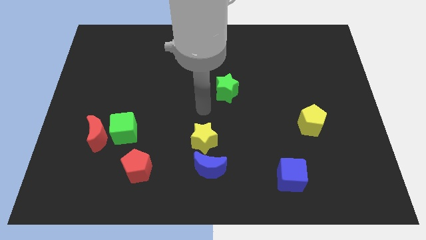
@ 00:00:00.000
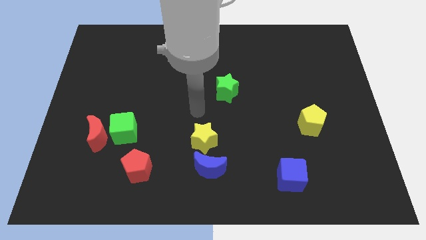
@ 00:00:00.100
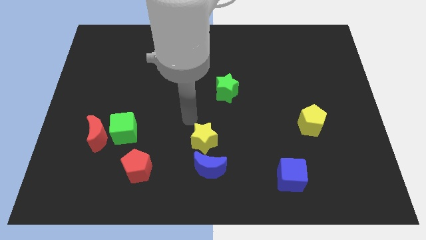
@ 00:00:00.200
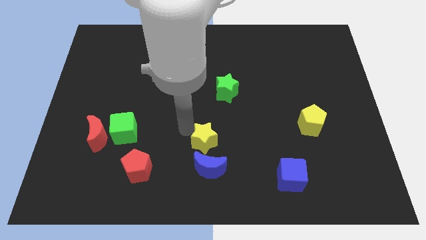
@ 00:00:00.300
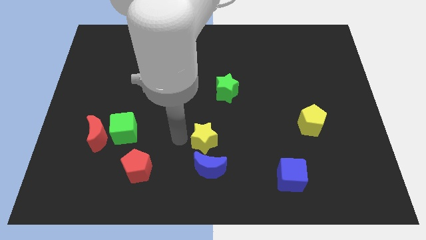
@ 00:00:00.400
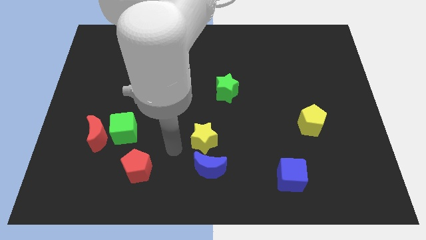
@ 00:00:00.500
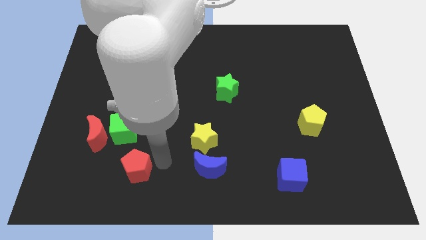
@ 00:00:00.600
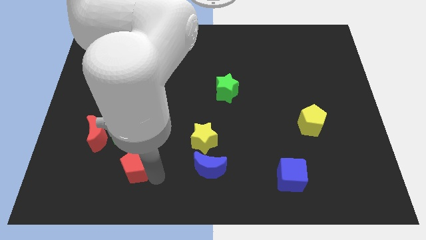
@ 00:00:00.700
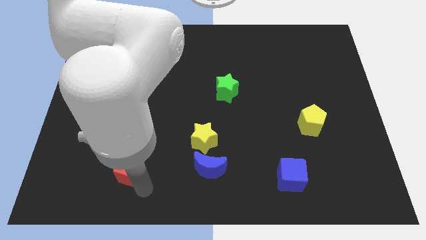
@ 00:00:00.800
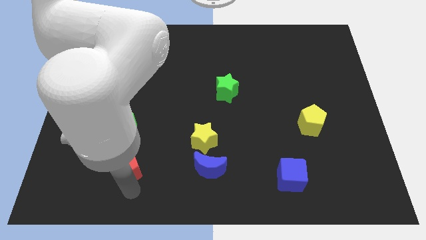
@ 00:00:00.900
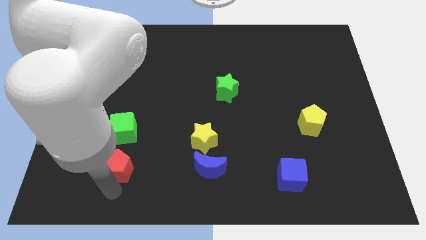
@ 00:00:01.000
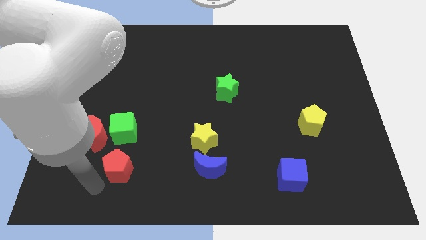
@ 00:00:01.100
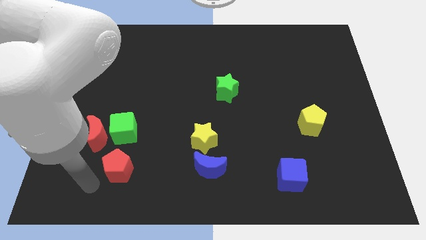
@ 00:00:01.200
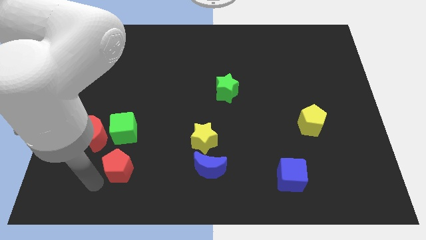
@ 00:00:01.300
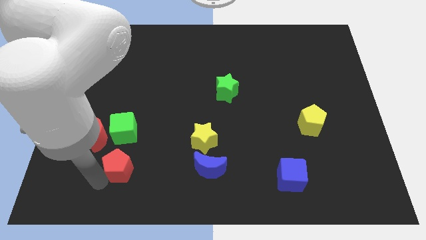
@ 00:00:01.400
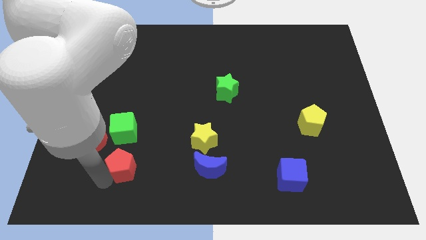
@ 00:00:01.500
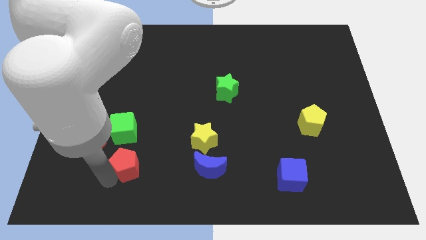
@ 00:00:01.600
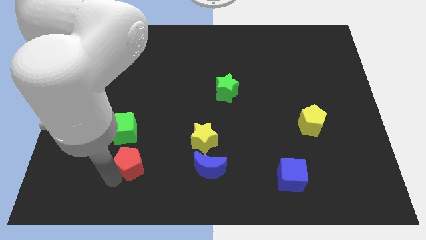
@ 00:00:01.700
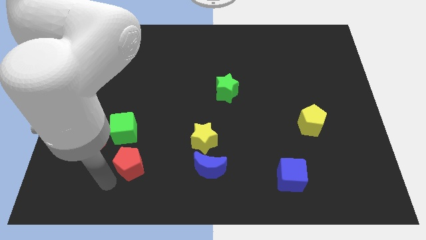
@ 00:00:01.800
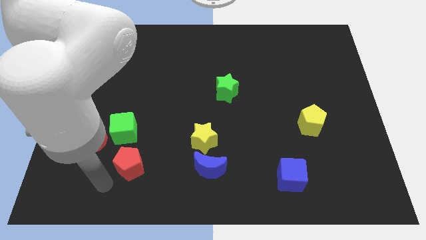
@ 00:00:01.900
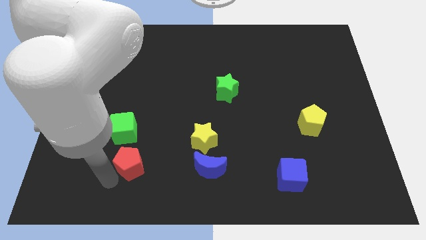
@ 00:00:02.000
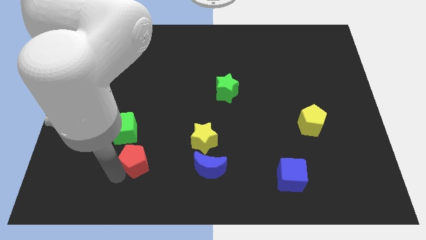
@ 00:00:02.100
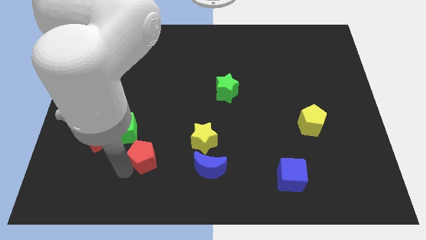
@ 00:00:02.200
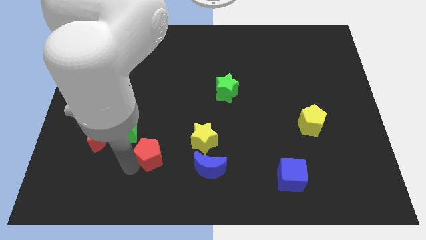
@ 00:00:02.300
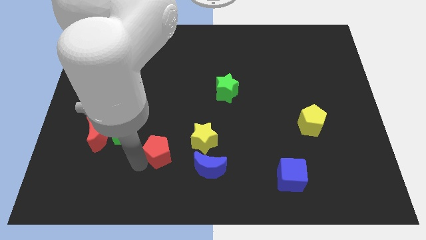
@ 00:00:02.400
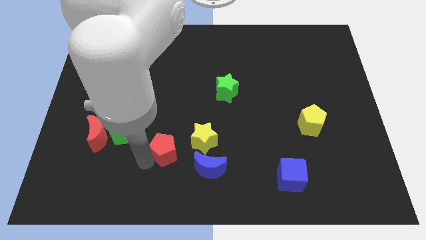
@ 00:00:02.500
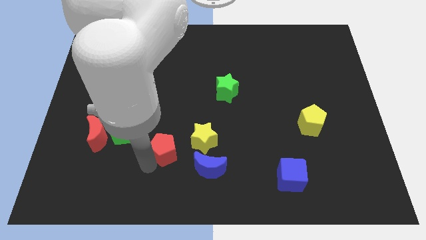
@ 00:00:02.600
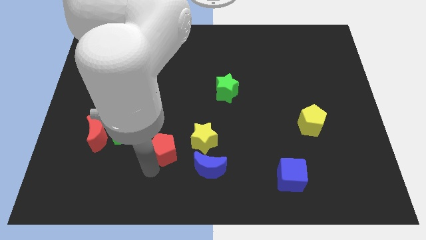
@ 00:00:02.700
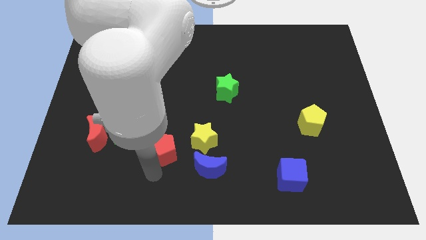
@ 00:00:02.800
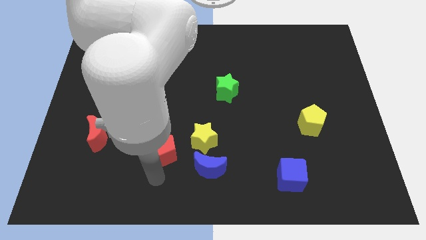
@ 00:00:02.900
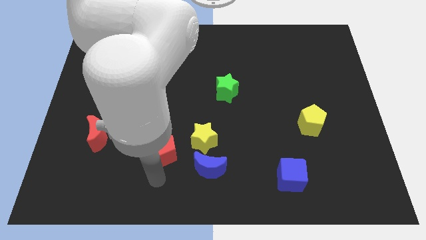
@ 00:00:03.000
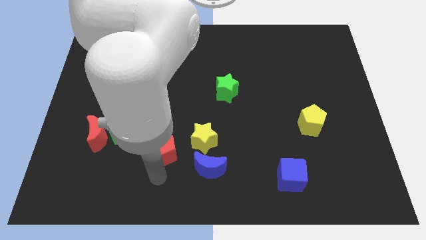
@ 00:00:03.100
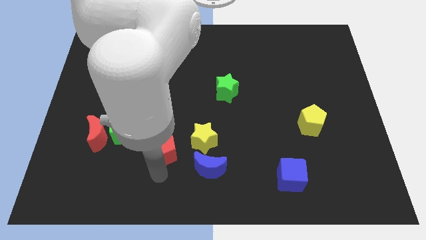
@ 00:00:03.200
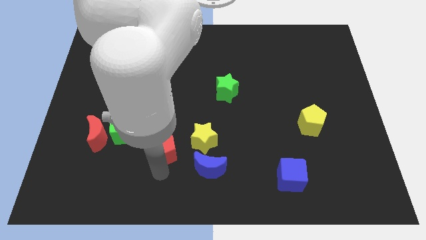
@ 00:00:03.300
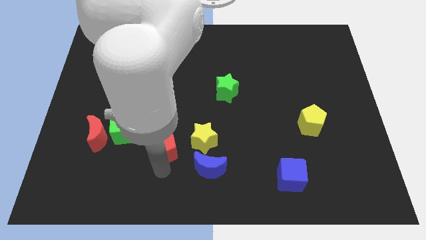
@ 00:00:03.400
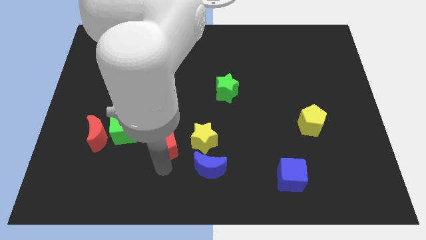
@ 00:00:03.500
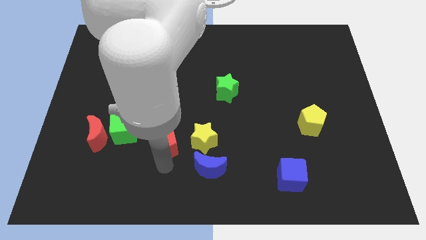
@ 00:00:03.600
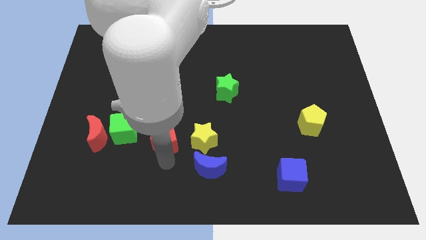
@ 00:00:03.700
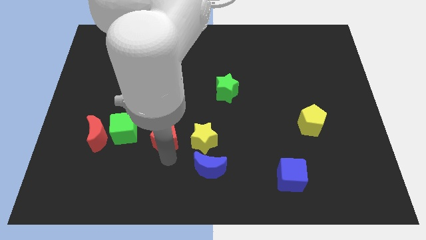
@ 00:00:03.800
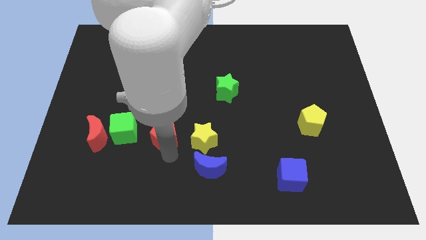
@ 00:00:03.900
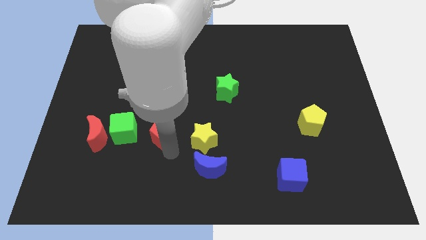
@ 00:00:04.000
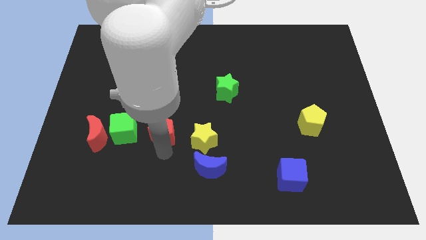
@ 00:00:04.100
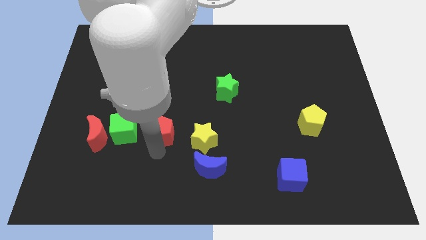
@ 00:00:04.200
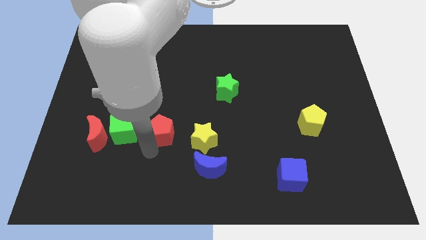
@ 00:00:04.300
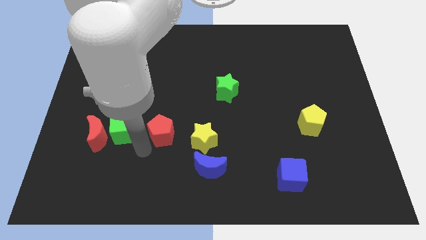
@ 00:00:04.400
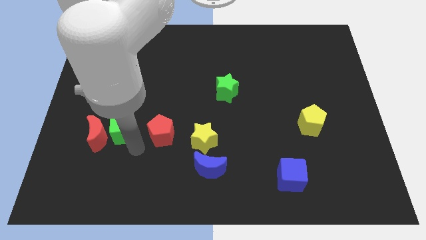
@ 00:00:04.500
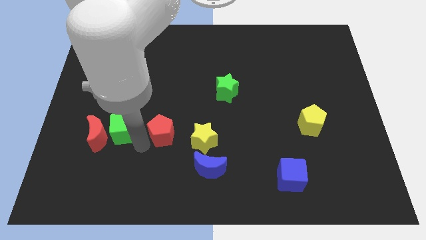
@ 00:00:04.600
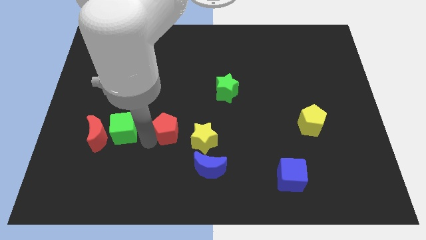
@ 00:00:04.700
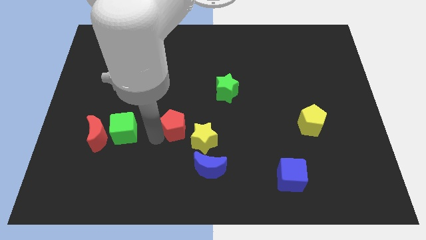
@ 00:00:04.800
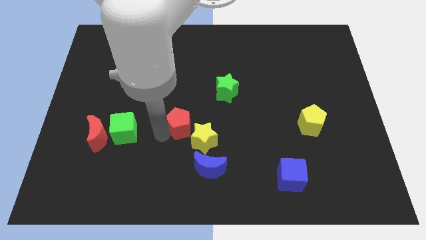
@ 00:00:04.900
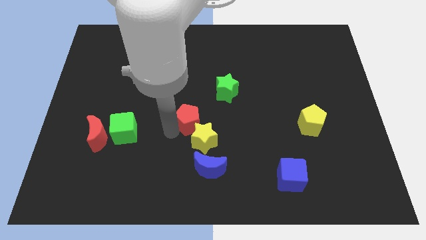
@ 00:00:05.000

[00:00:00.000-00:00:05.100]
move the red pentagon to the top of the yellow star

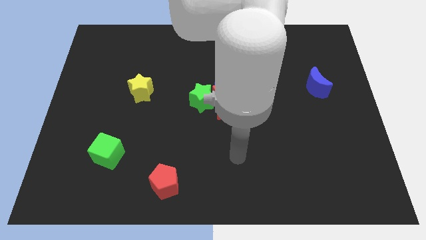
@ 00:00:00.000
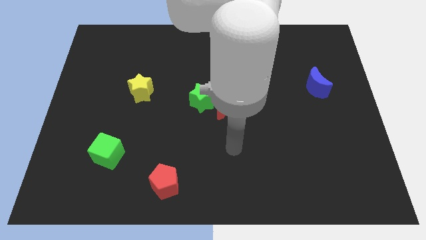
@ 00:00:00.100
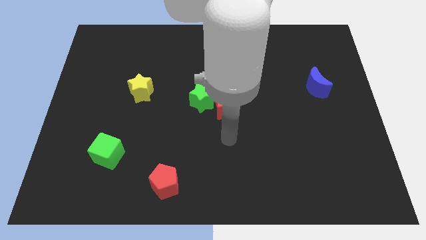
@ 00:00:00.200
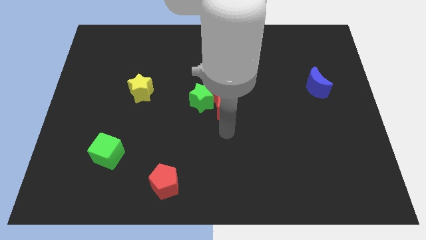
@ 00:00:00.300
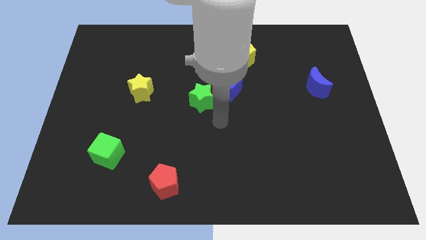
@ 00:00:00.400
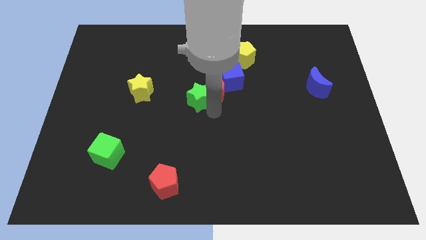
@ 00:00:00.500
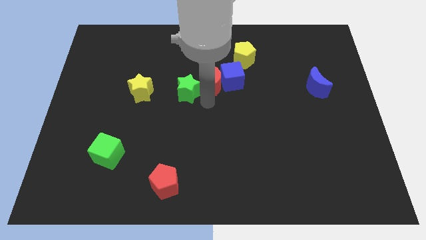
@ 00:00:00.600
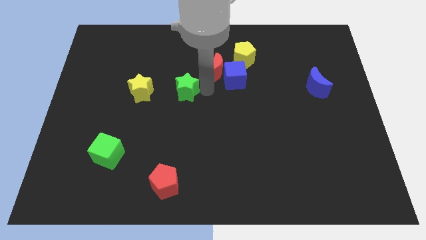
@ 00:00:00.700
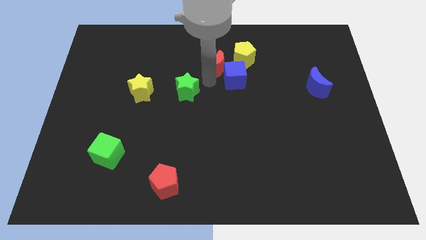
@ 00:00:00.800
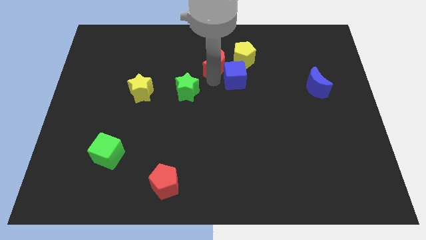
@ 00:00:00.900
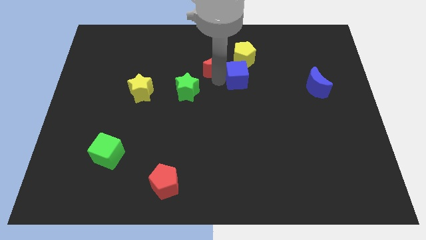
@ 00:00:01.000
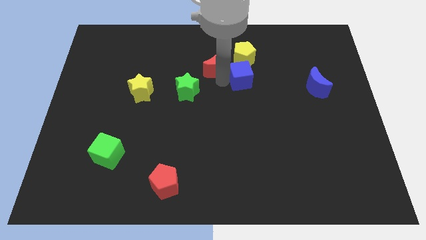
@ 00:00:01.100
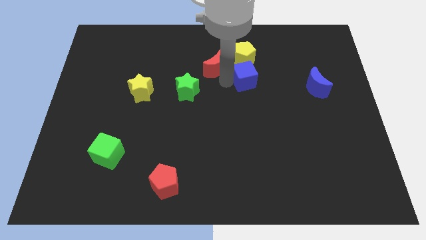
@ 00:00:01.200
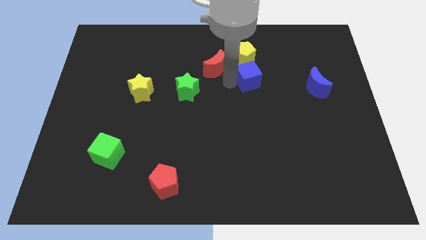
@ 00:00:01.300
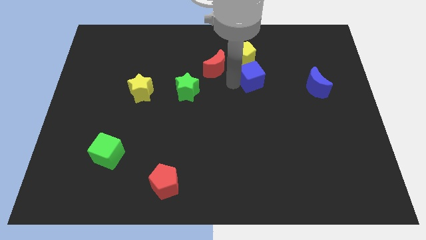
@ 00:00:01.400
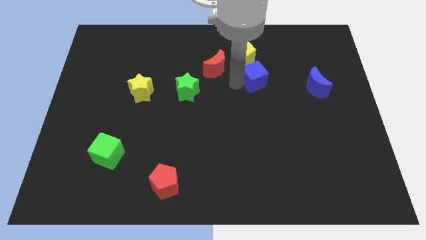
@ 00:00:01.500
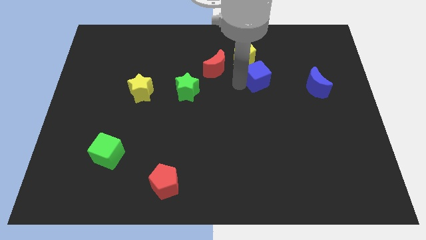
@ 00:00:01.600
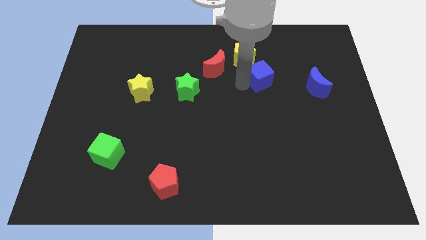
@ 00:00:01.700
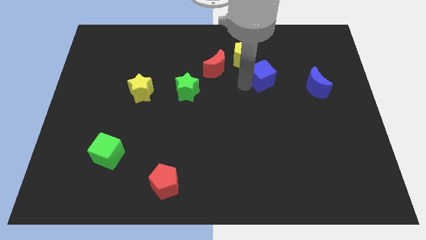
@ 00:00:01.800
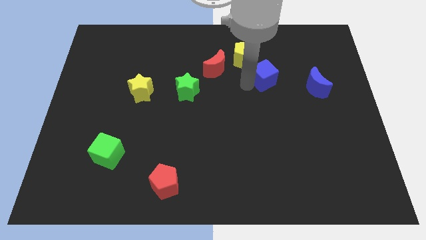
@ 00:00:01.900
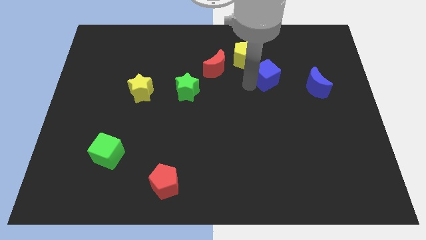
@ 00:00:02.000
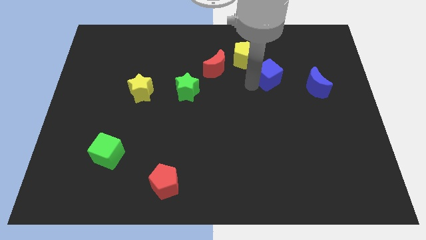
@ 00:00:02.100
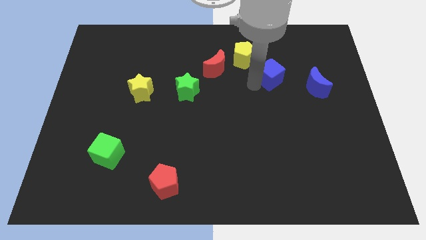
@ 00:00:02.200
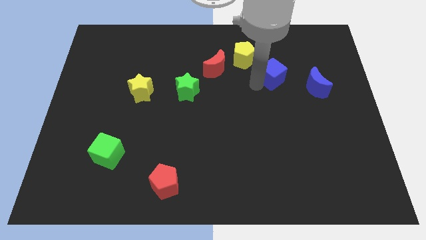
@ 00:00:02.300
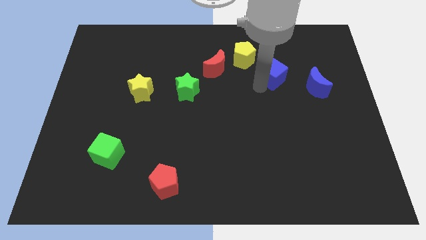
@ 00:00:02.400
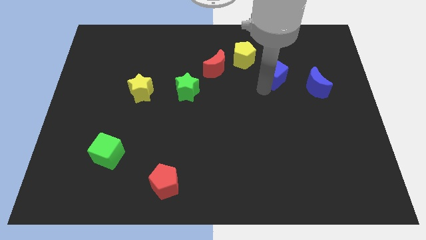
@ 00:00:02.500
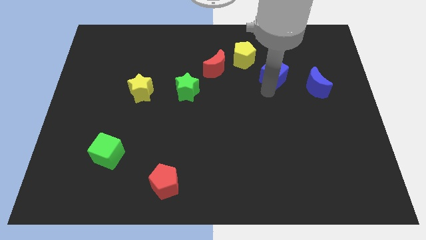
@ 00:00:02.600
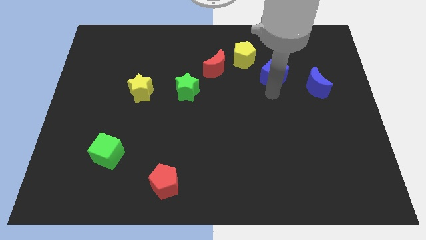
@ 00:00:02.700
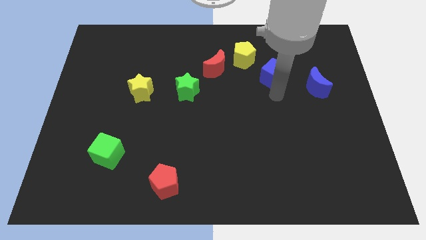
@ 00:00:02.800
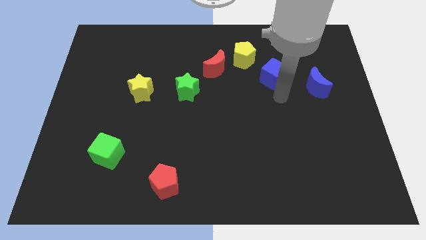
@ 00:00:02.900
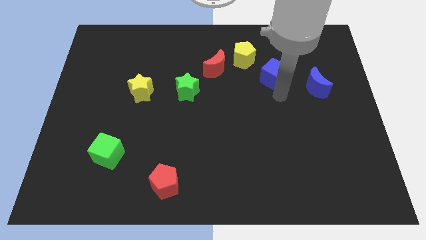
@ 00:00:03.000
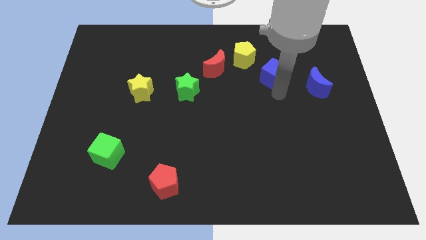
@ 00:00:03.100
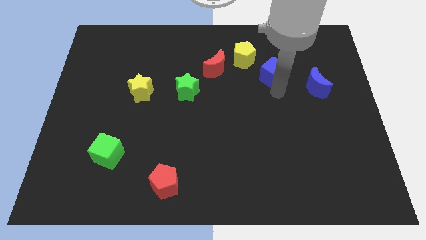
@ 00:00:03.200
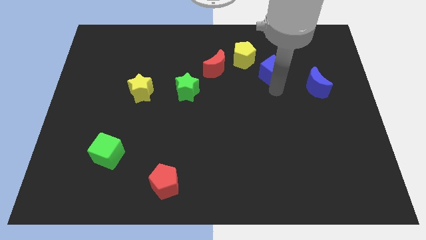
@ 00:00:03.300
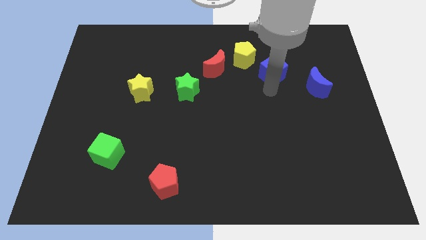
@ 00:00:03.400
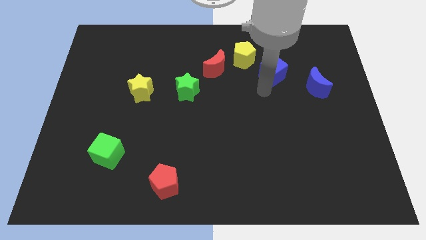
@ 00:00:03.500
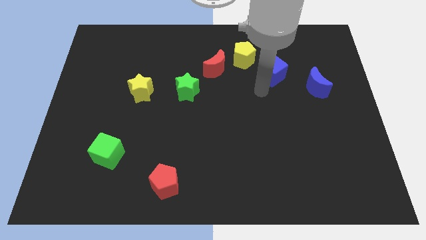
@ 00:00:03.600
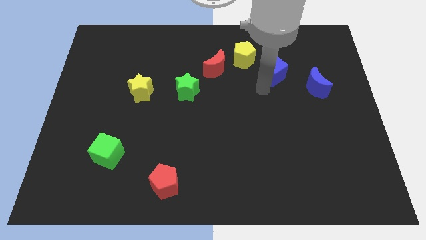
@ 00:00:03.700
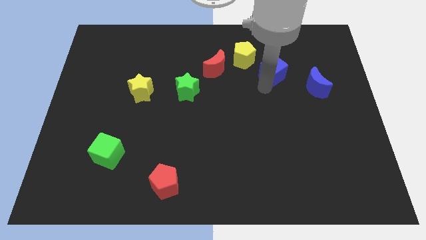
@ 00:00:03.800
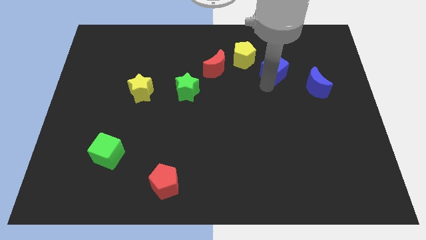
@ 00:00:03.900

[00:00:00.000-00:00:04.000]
move the blue cube to the right of the yellow pentagon
